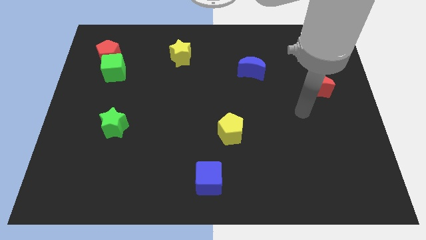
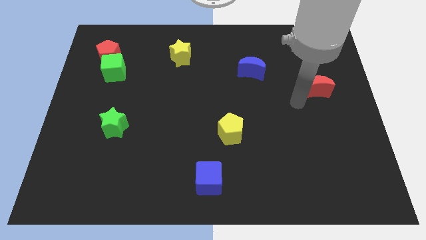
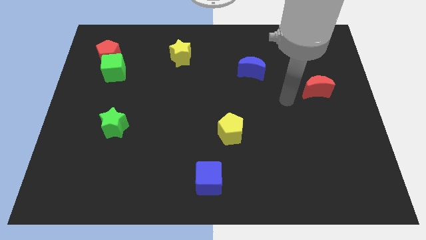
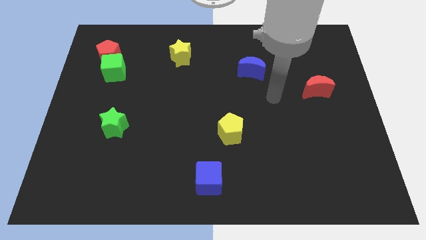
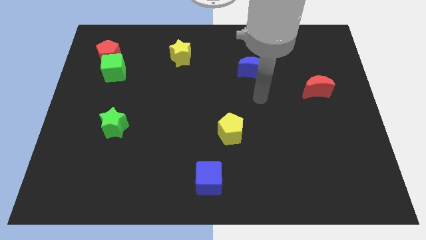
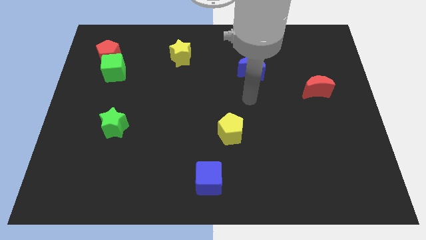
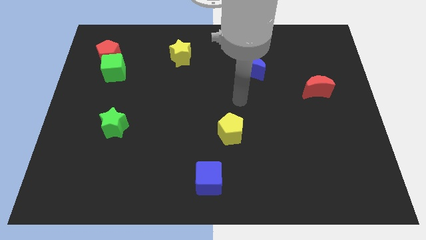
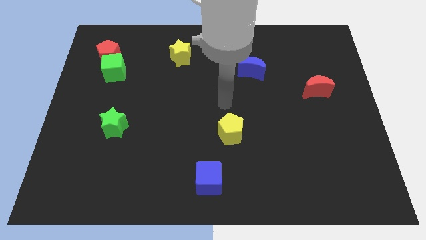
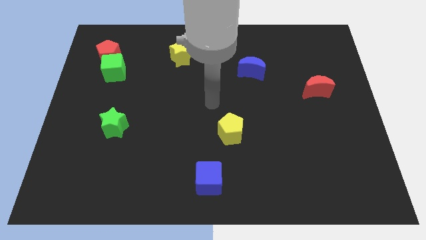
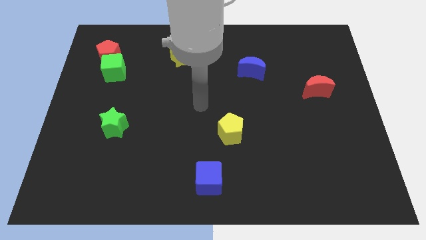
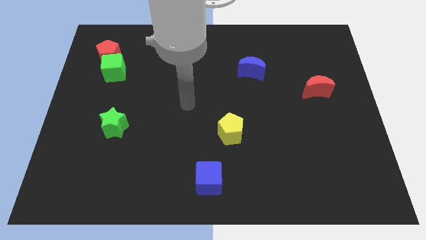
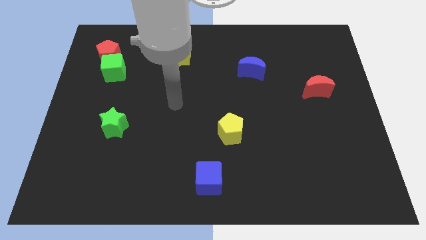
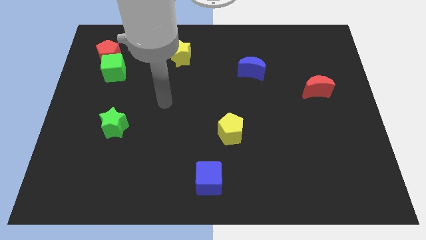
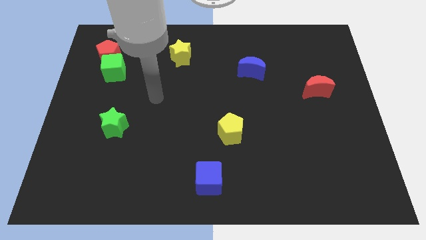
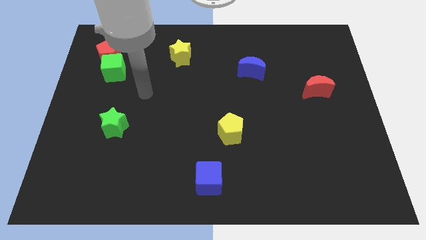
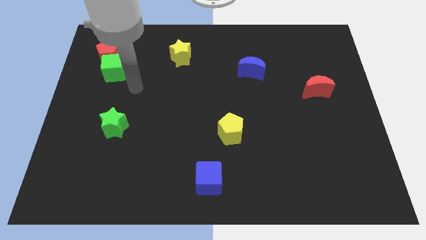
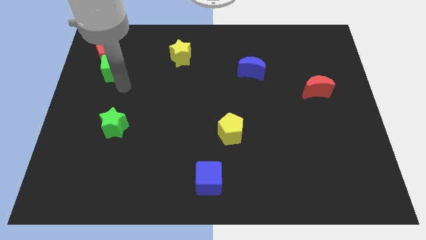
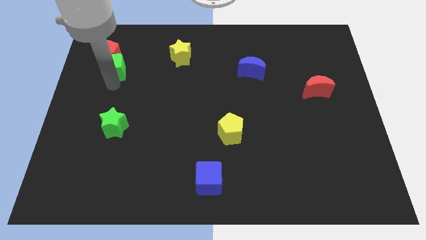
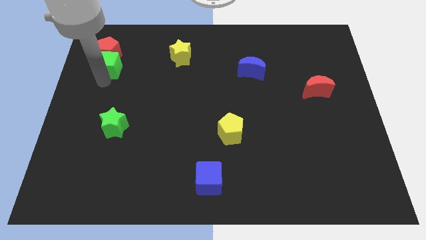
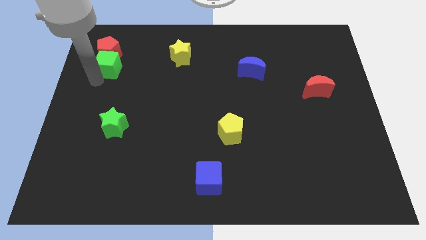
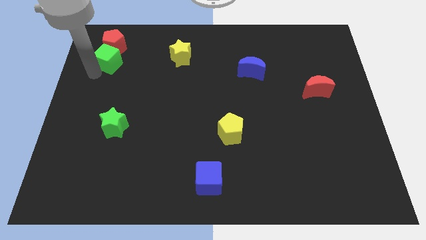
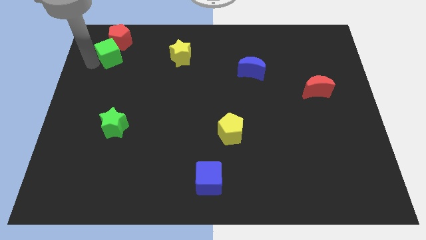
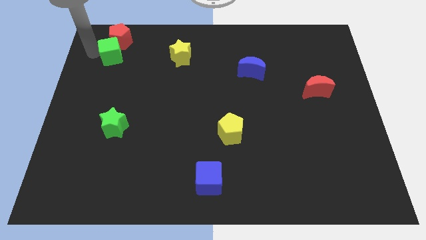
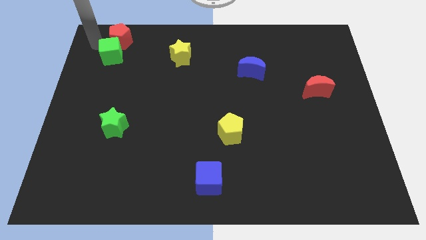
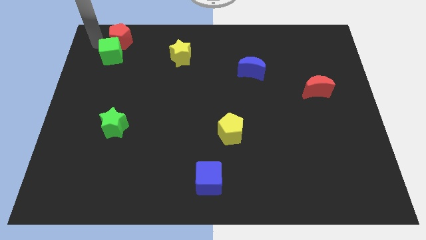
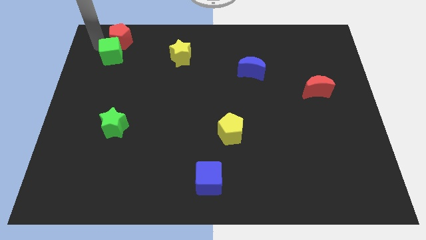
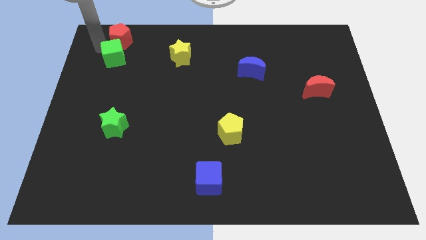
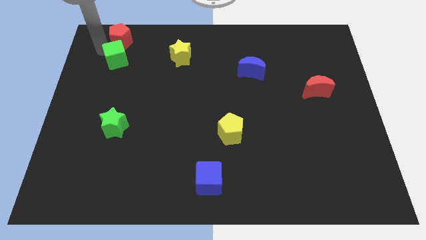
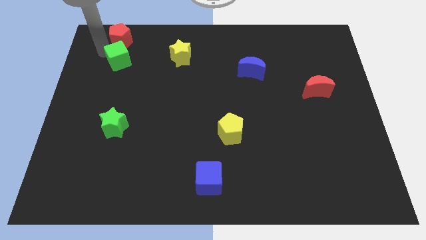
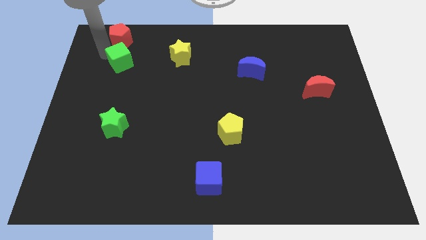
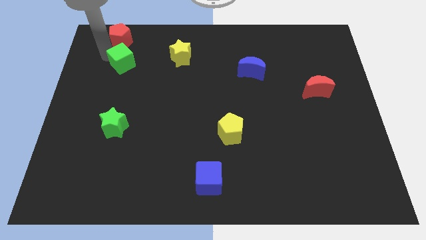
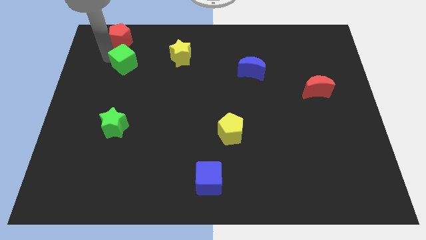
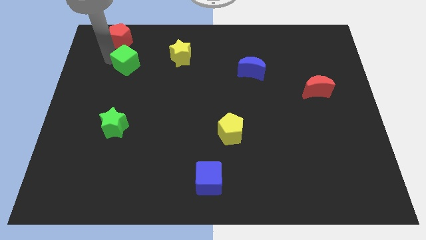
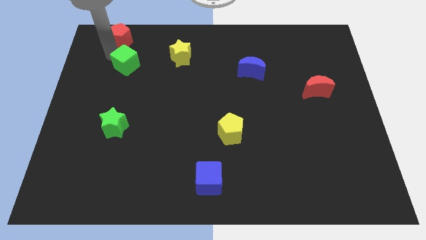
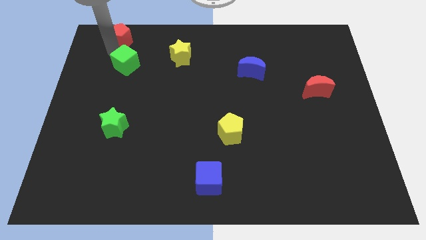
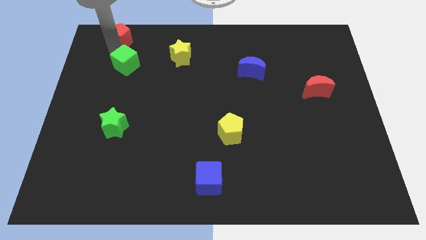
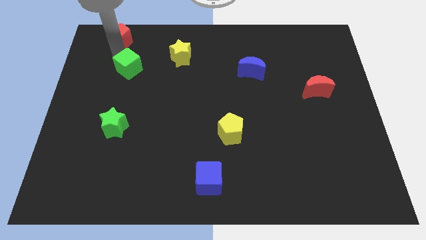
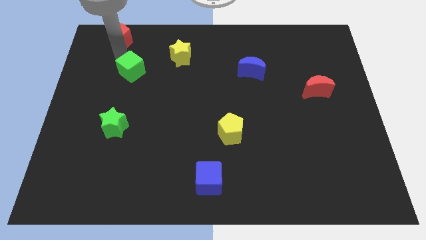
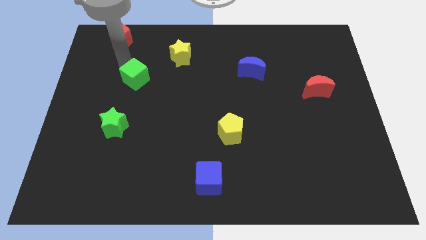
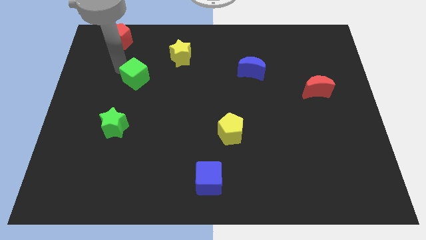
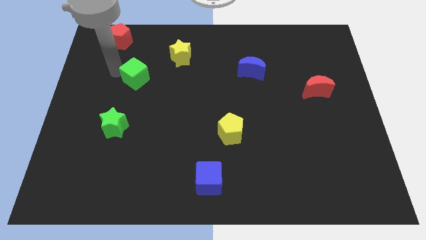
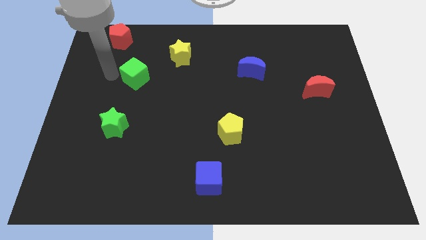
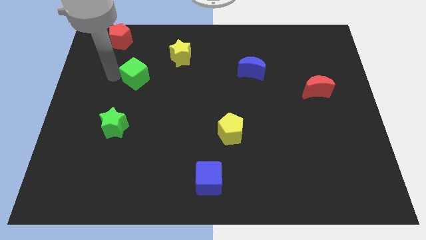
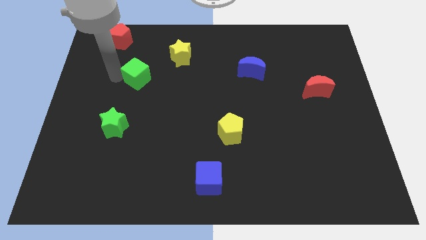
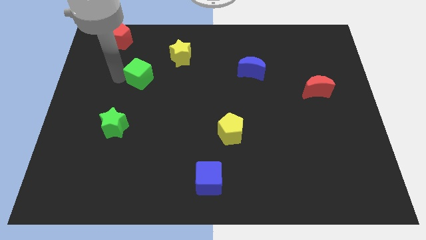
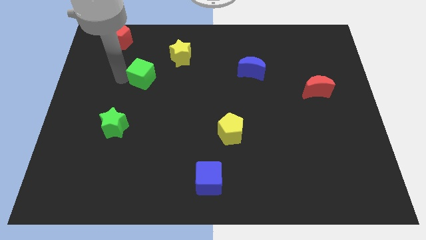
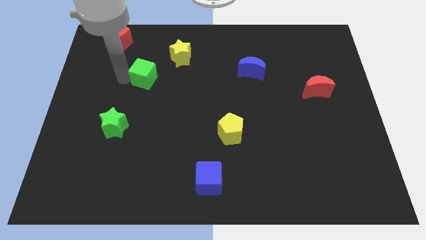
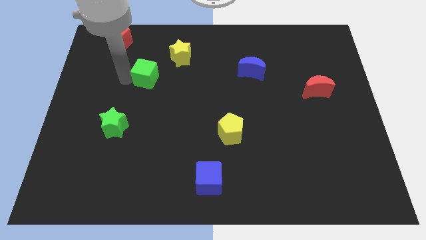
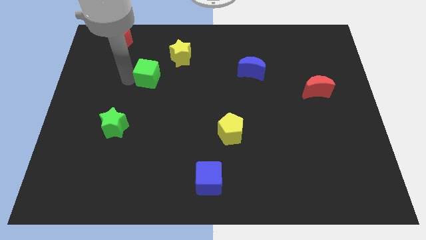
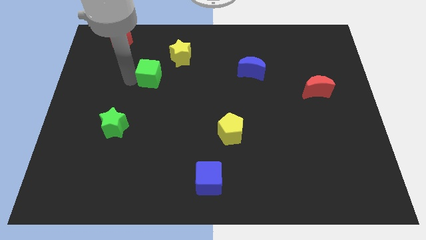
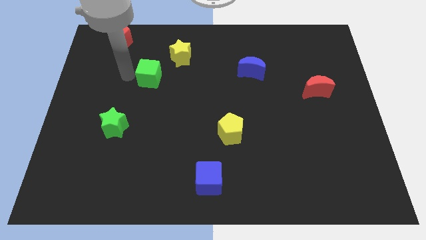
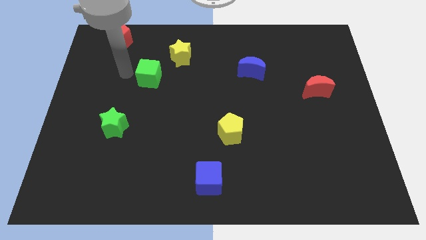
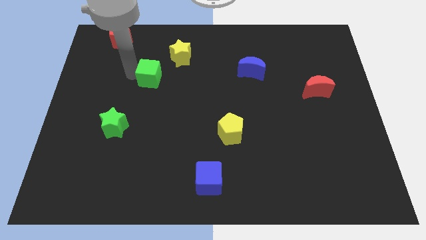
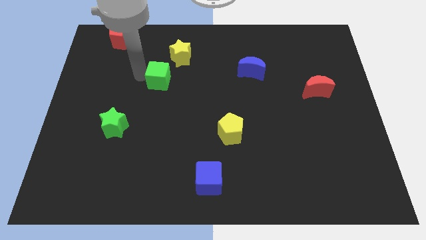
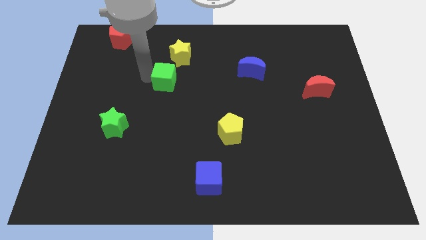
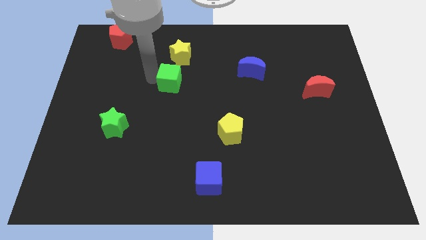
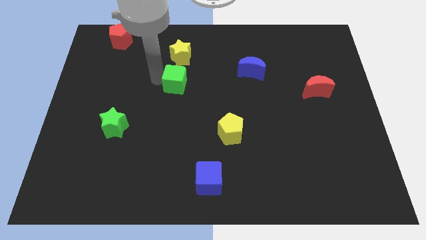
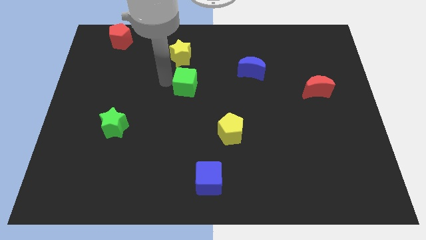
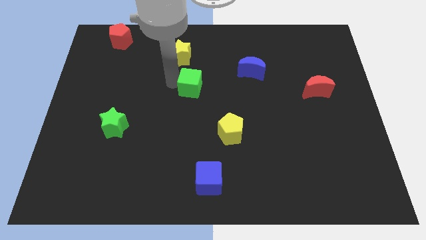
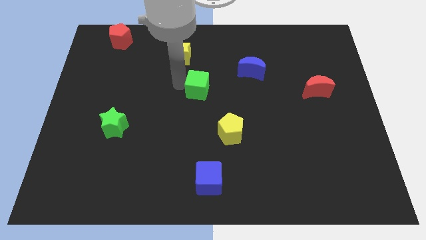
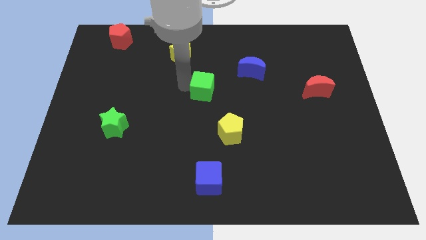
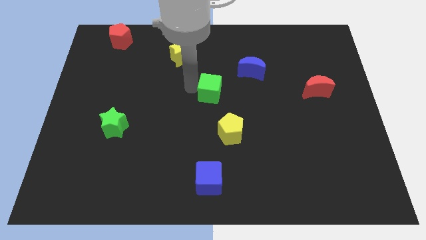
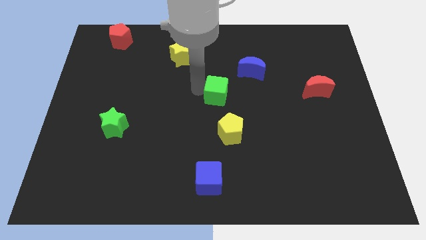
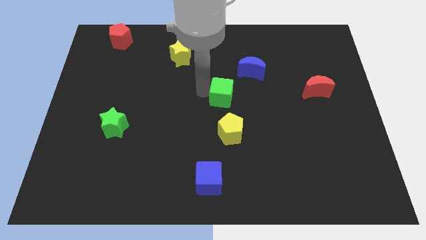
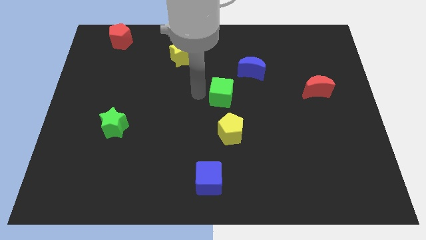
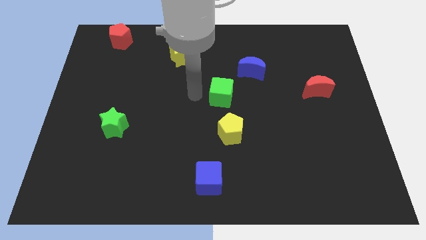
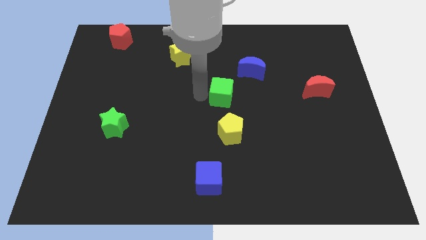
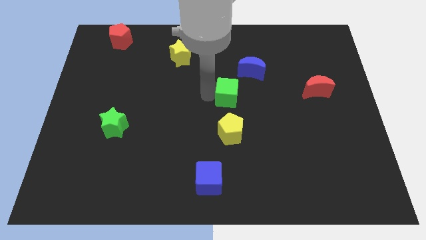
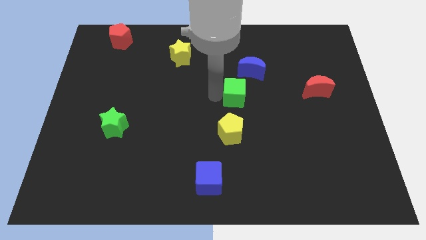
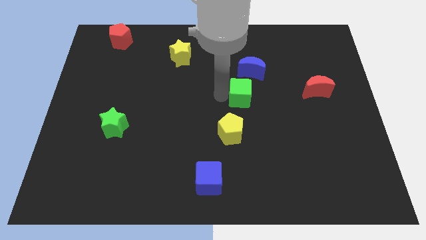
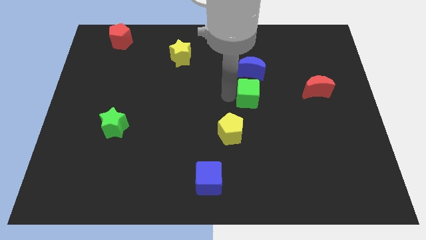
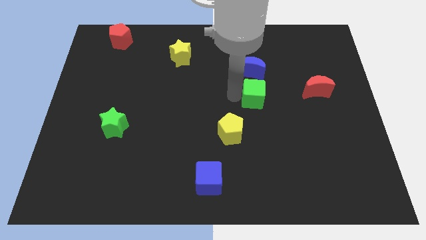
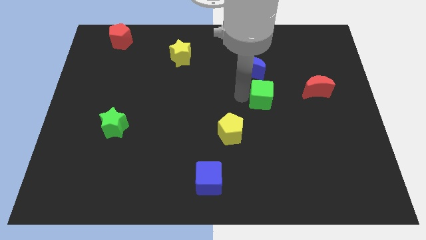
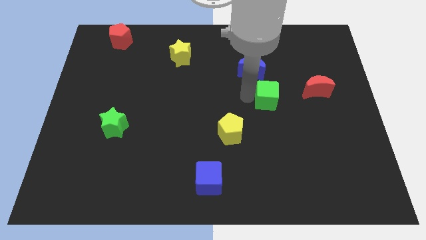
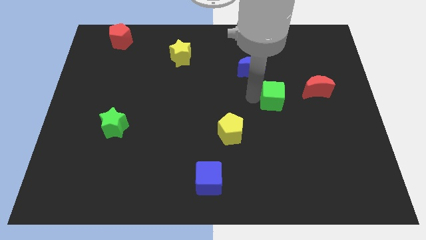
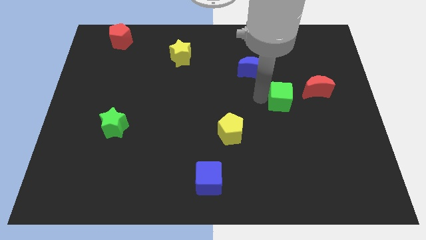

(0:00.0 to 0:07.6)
move the green cube diagonally down and to the left of the red moon
